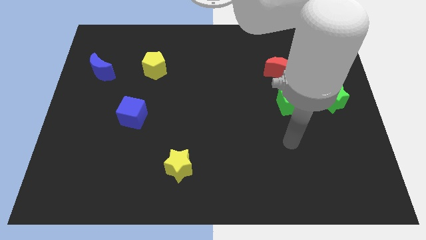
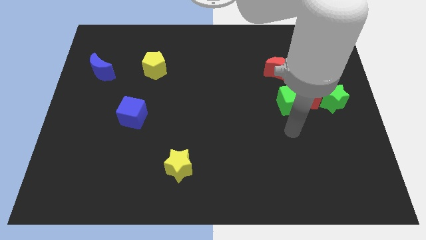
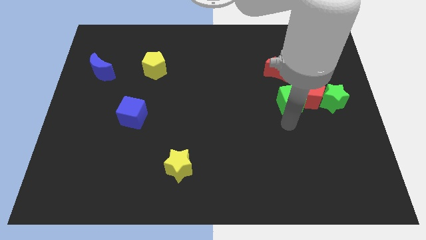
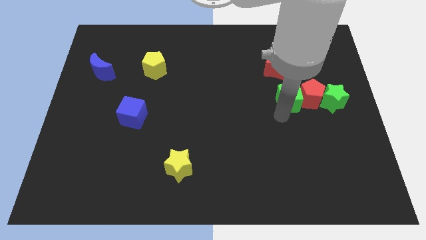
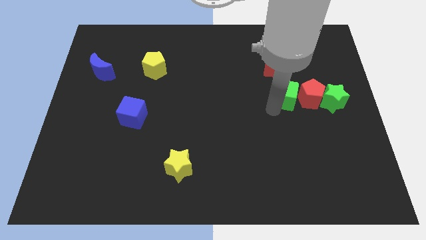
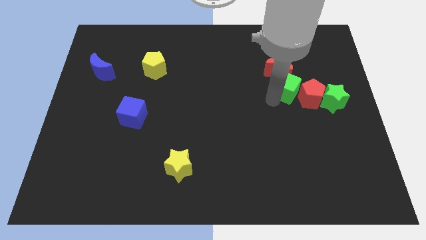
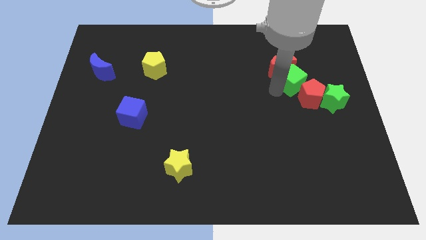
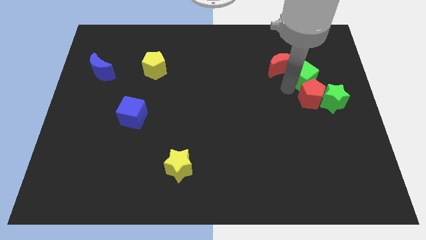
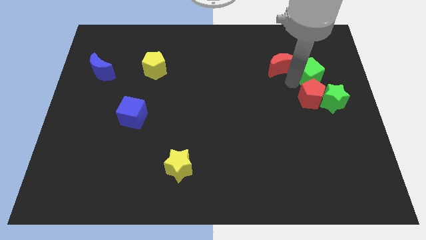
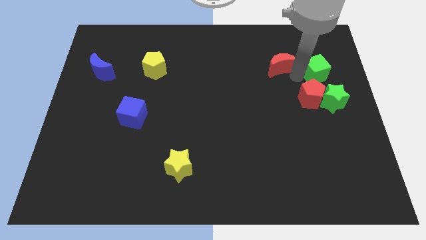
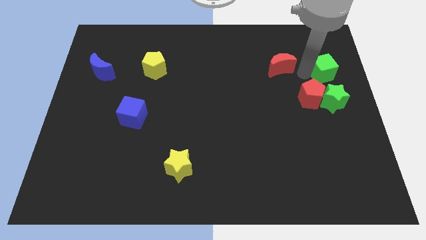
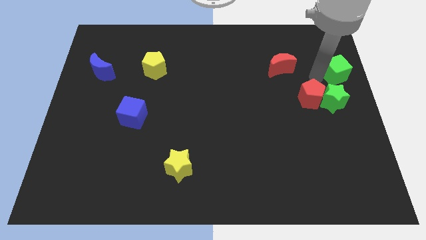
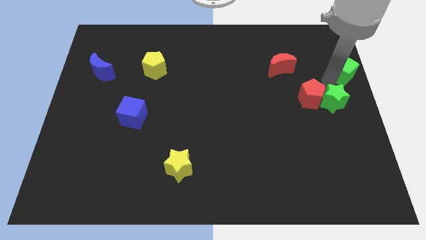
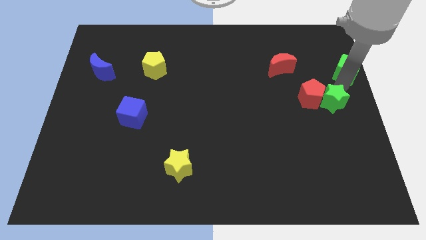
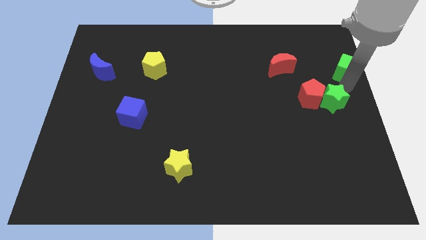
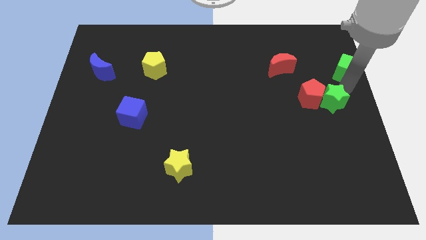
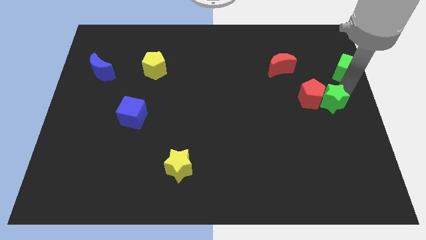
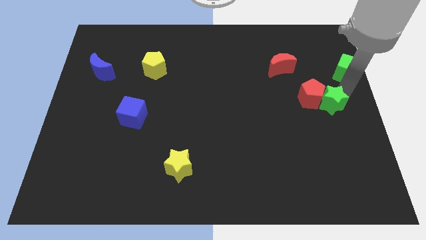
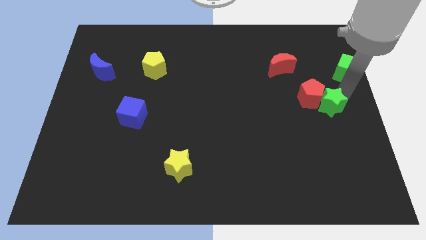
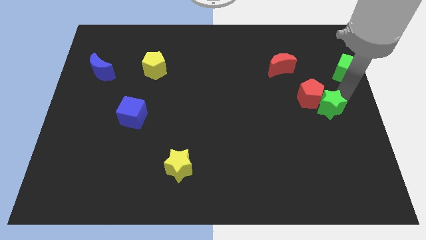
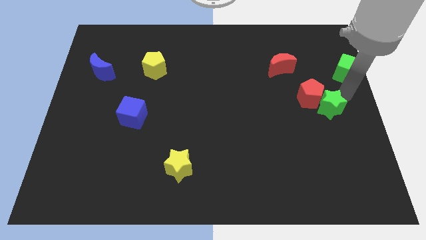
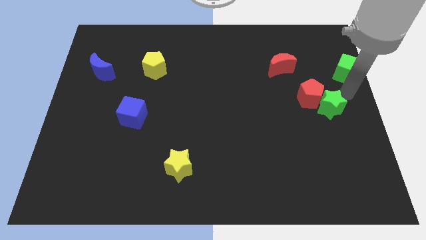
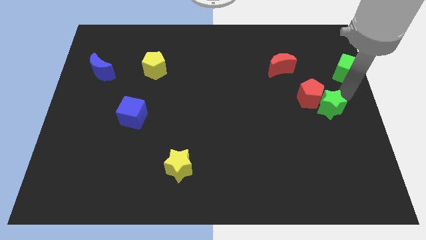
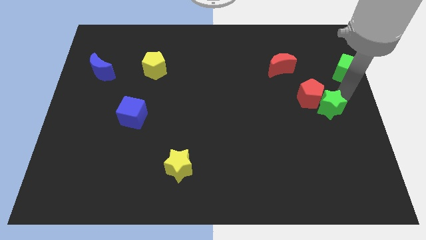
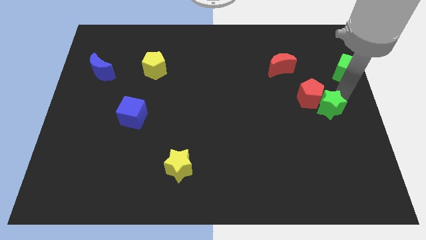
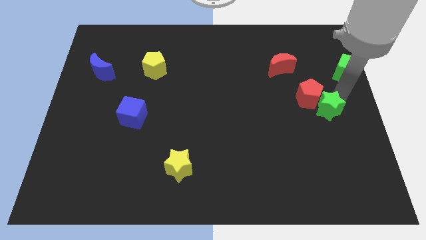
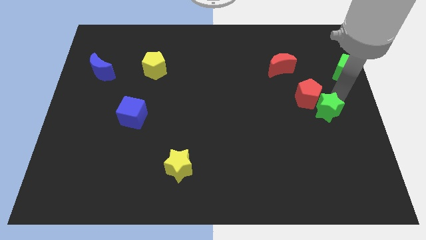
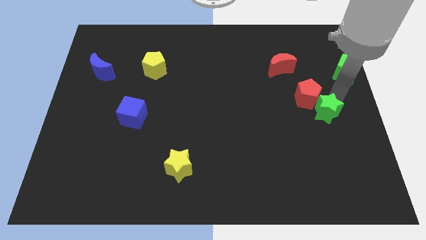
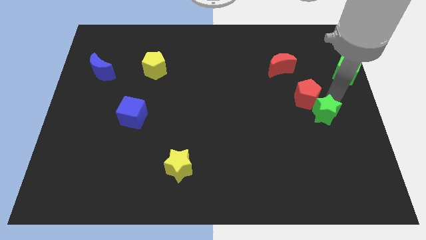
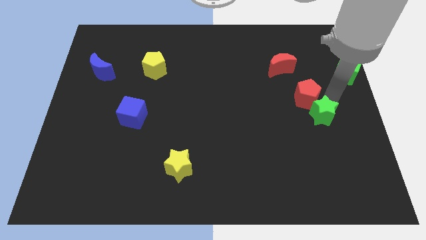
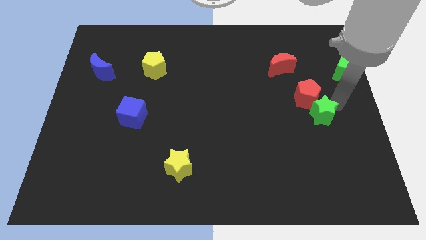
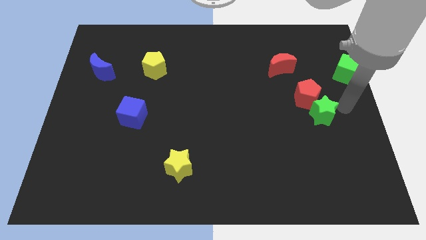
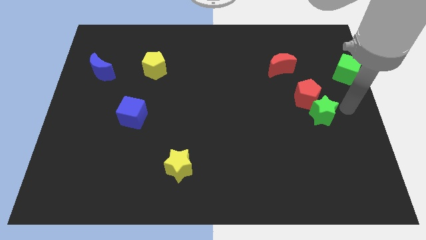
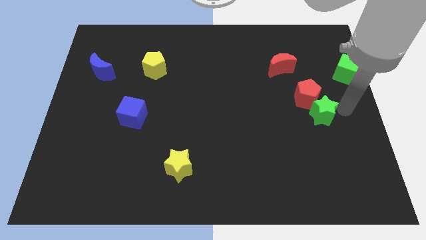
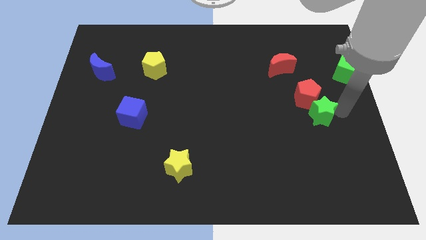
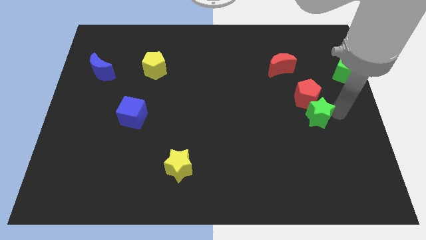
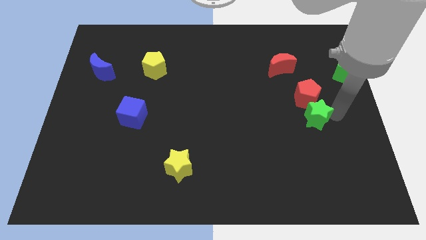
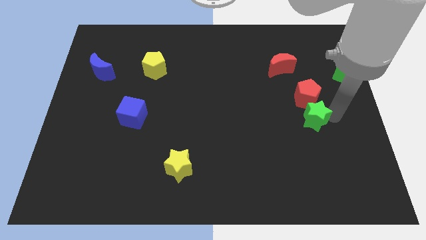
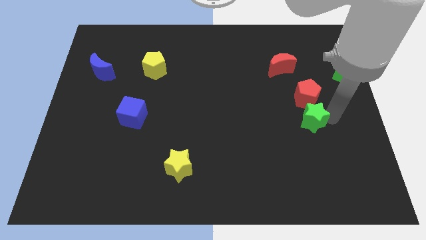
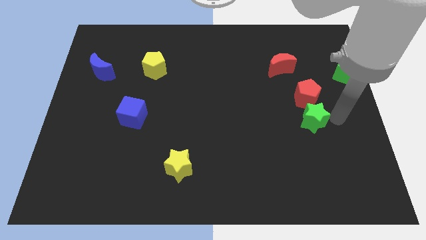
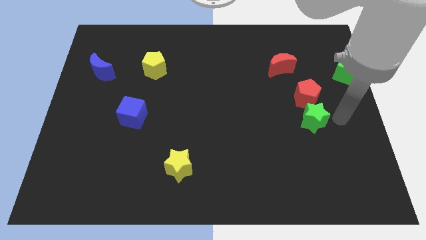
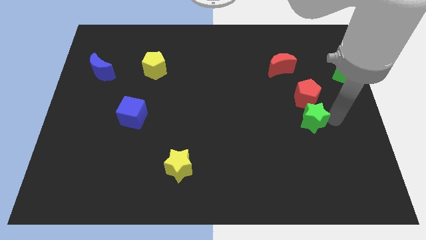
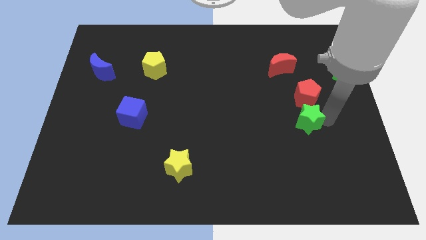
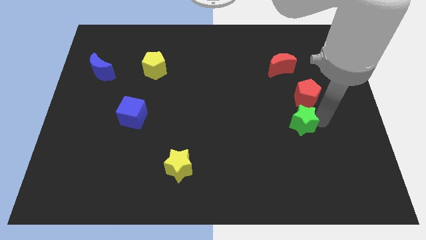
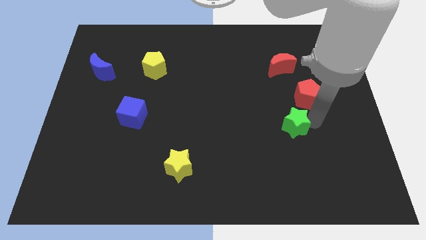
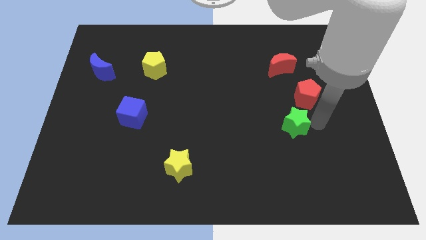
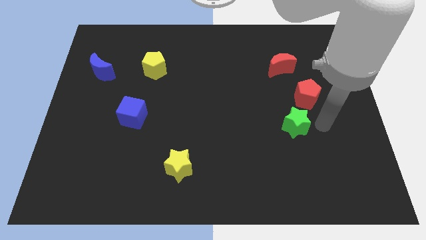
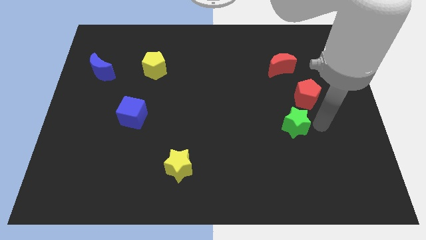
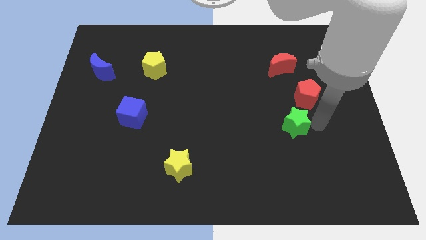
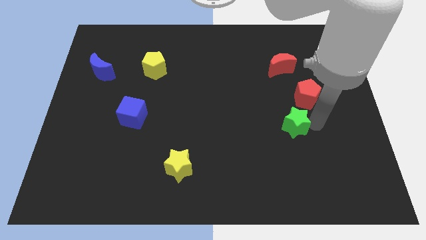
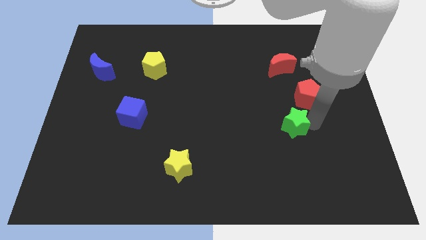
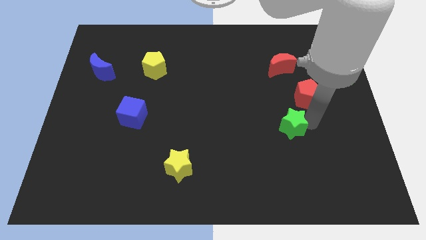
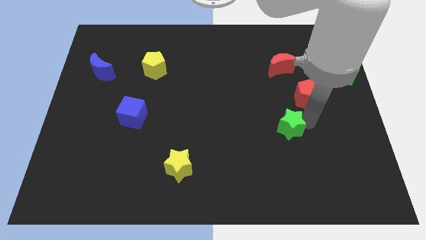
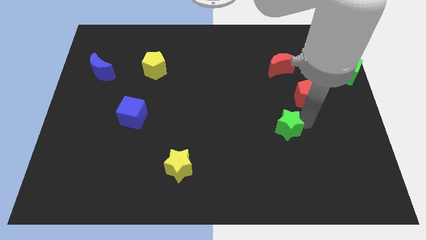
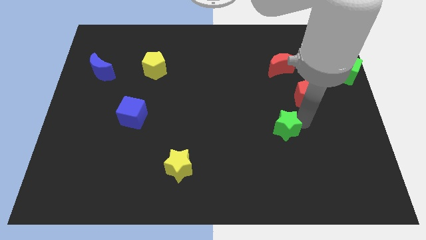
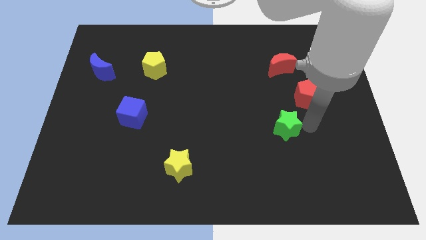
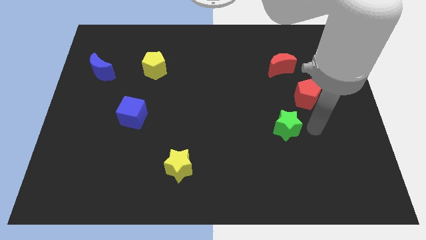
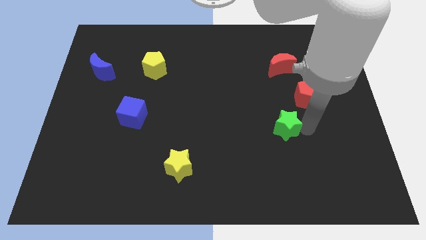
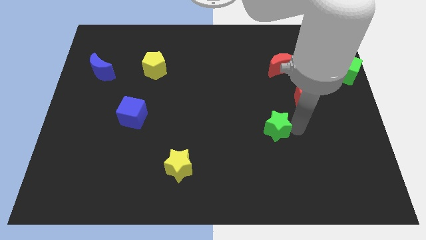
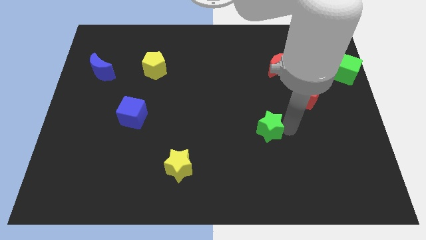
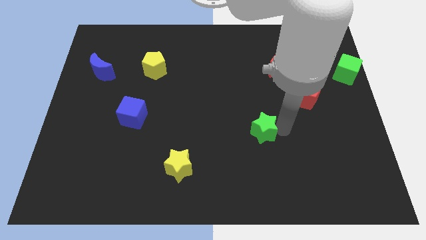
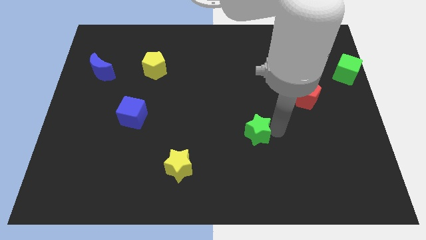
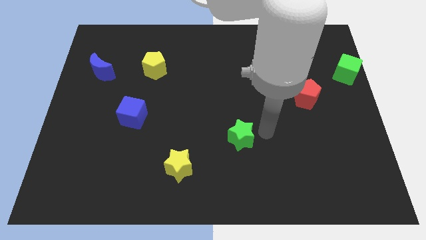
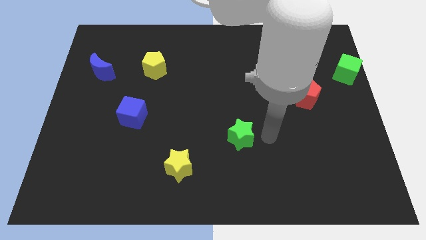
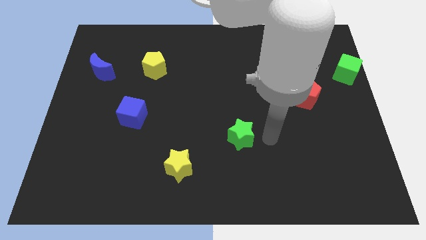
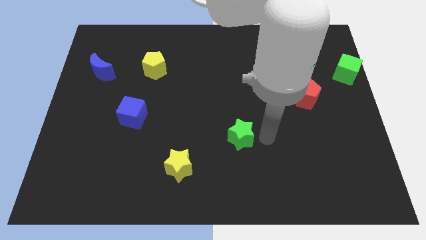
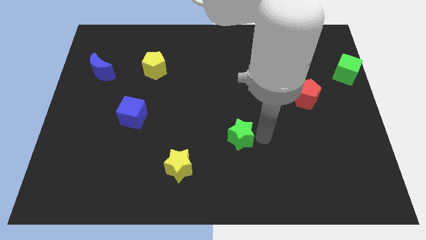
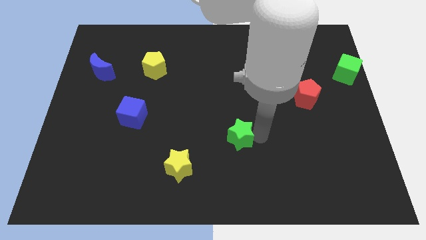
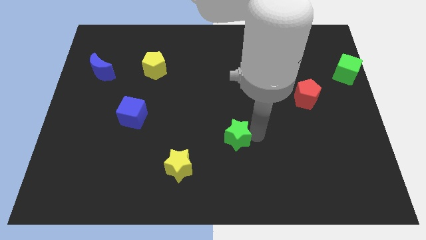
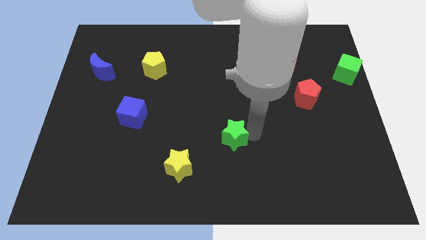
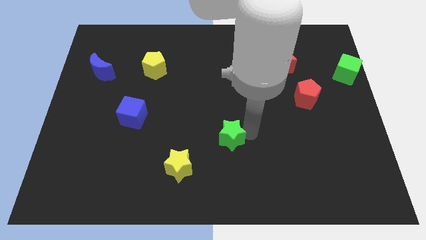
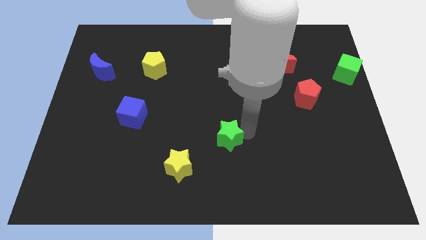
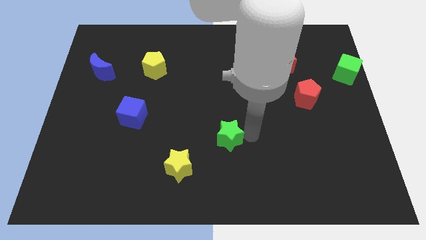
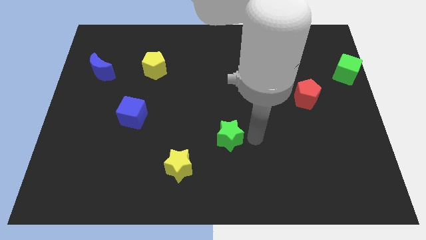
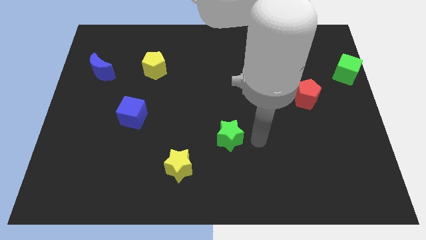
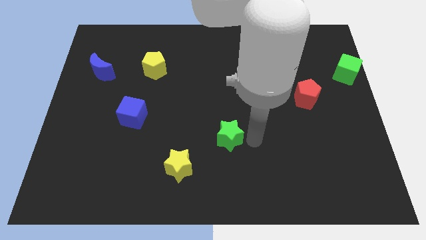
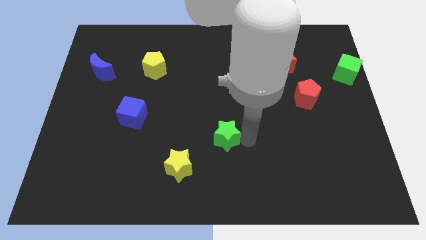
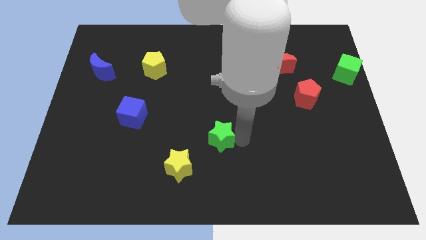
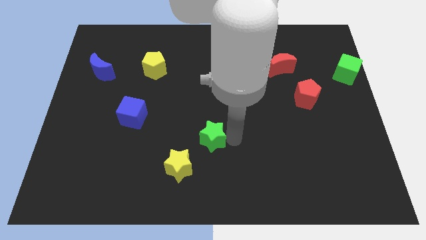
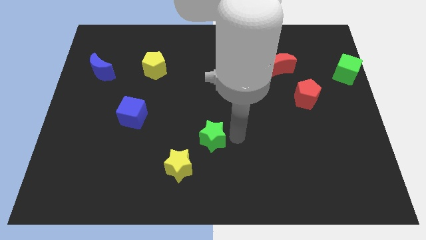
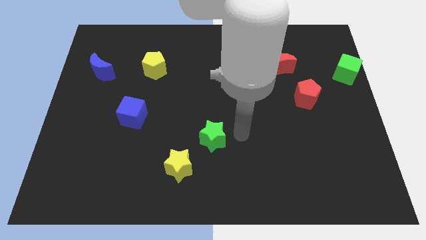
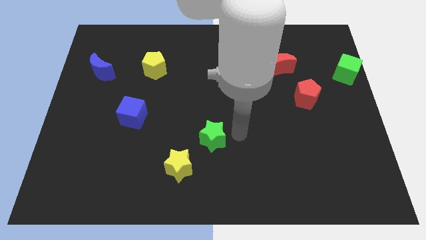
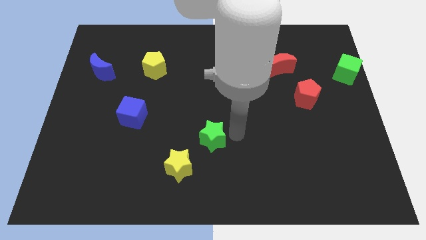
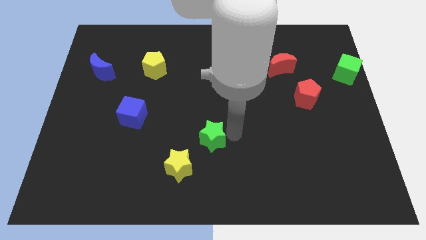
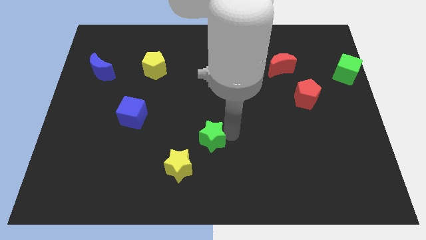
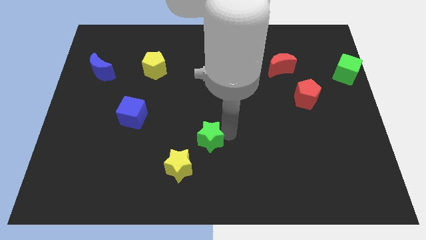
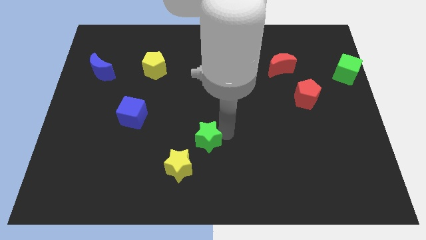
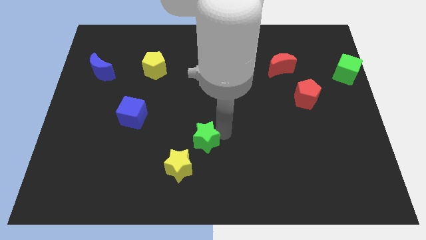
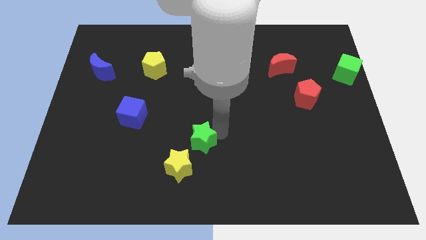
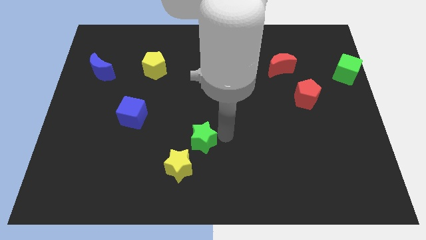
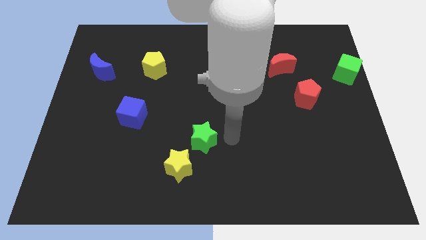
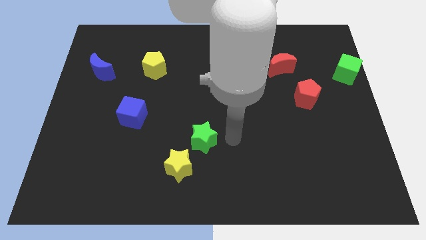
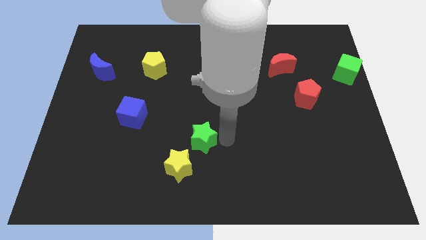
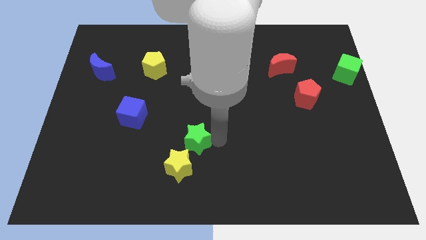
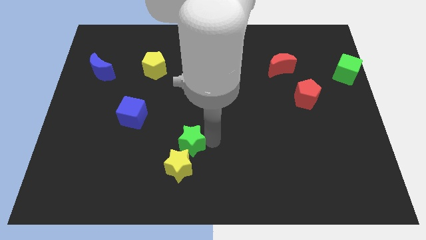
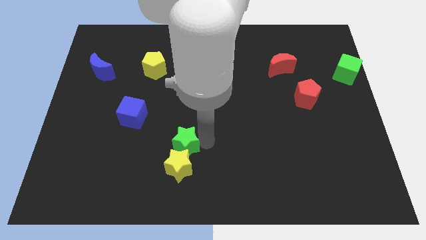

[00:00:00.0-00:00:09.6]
move the green star to the top left side of the yellow star
